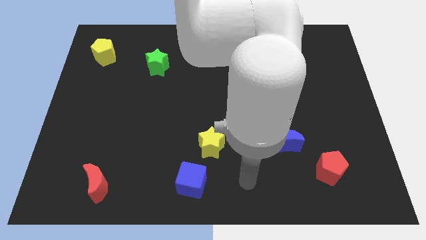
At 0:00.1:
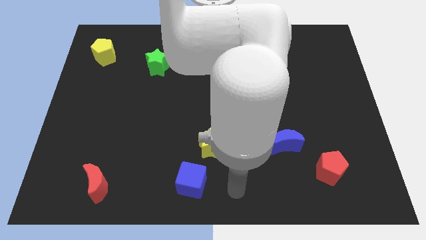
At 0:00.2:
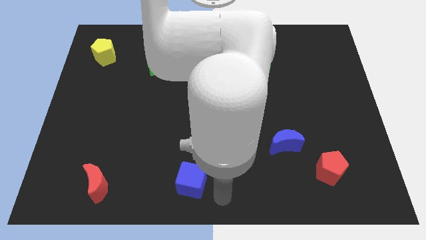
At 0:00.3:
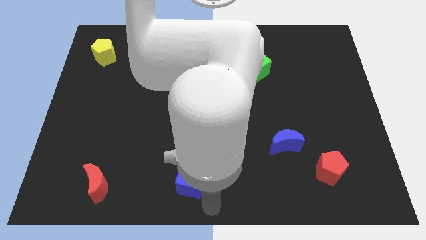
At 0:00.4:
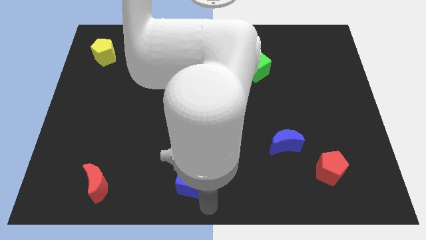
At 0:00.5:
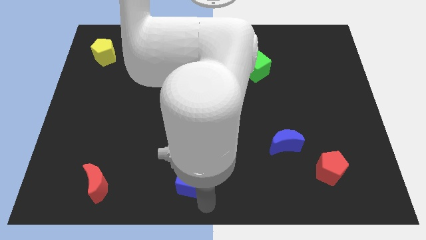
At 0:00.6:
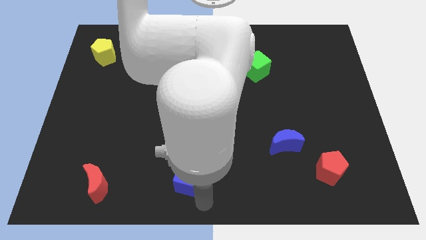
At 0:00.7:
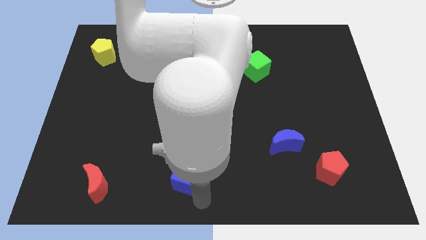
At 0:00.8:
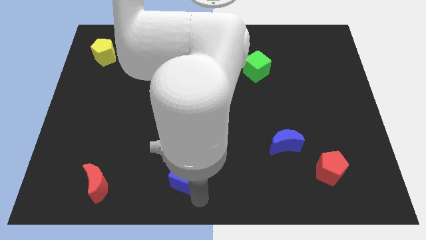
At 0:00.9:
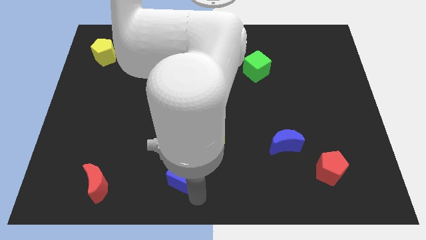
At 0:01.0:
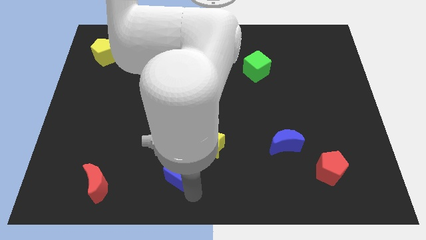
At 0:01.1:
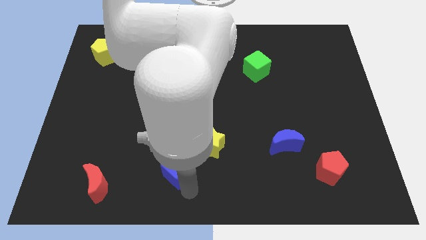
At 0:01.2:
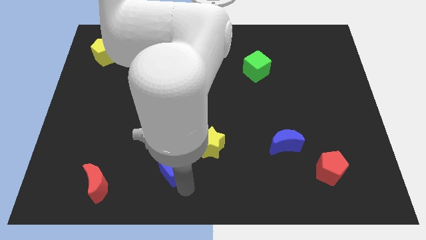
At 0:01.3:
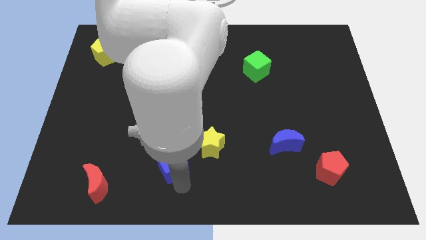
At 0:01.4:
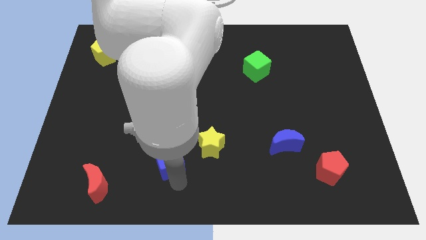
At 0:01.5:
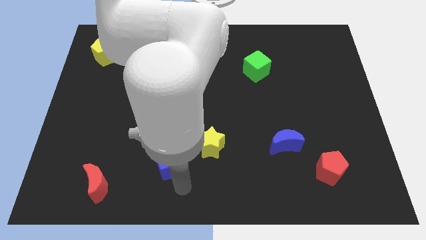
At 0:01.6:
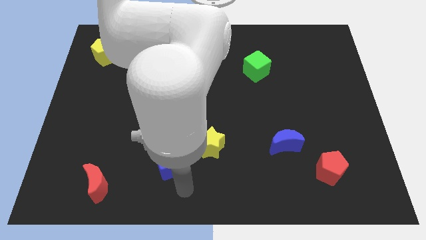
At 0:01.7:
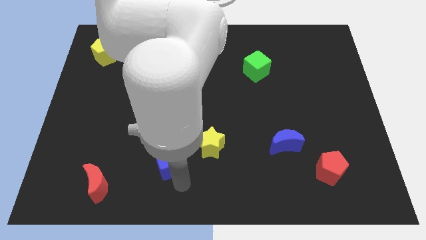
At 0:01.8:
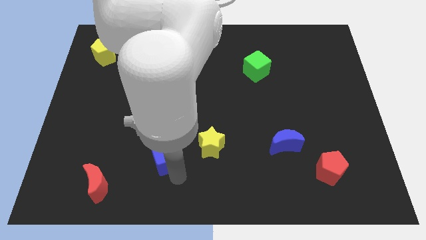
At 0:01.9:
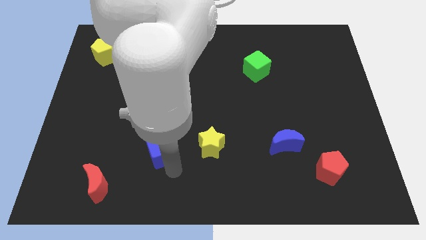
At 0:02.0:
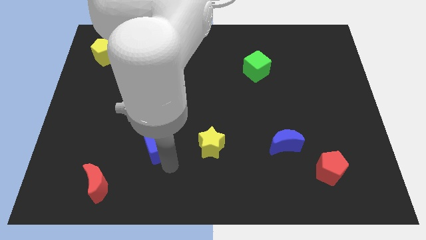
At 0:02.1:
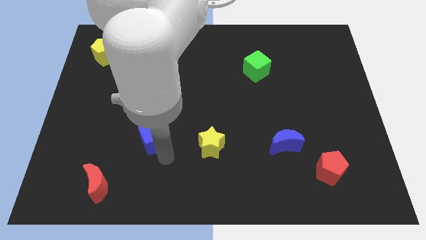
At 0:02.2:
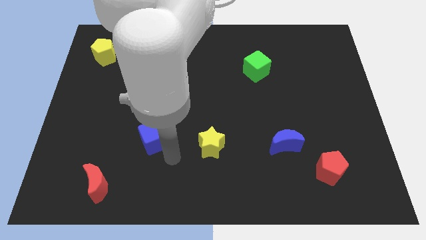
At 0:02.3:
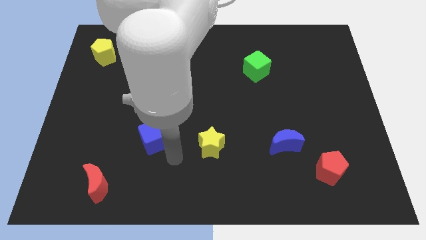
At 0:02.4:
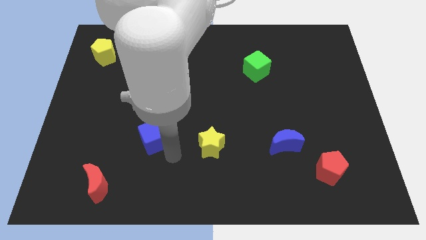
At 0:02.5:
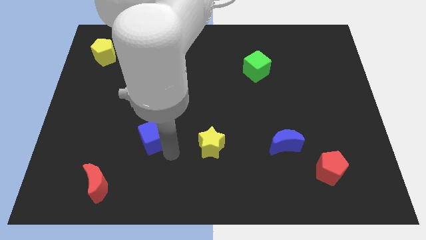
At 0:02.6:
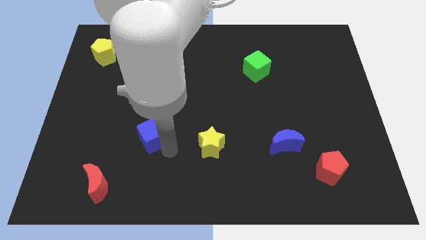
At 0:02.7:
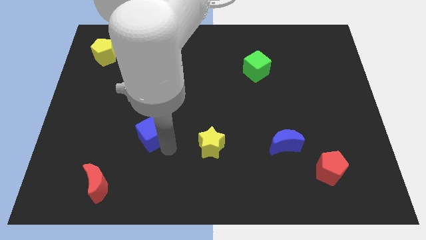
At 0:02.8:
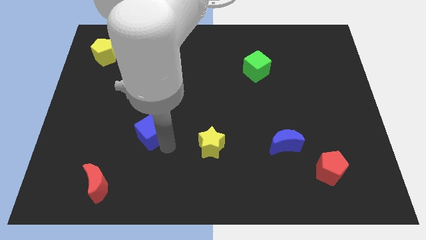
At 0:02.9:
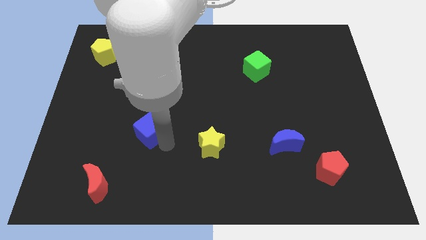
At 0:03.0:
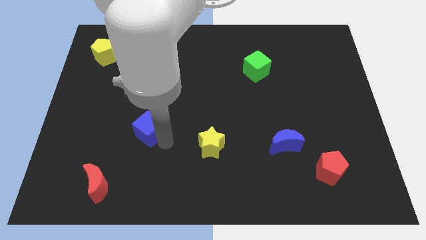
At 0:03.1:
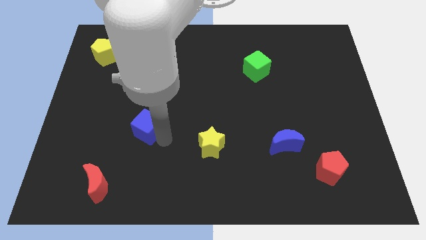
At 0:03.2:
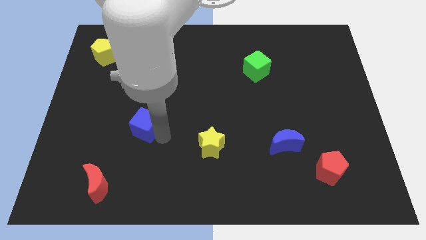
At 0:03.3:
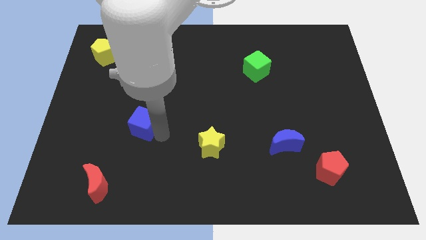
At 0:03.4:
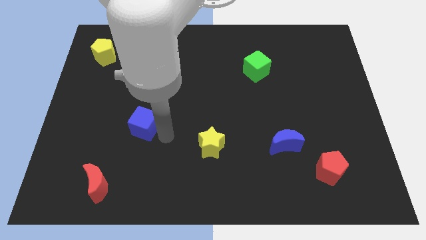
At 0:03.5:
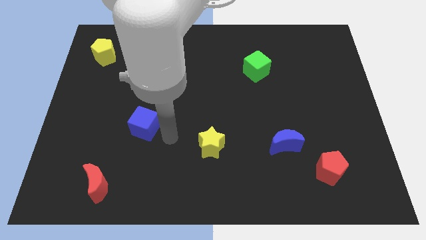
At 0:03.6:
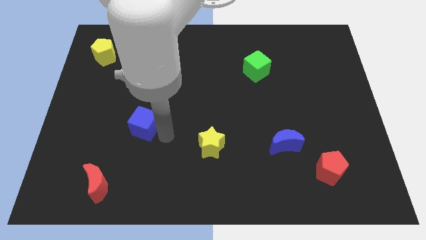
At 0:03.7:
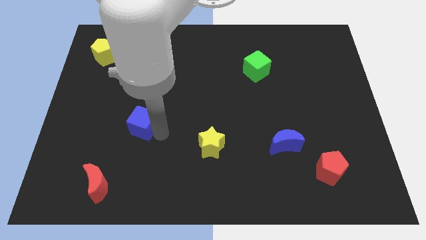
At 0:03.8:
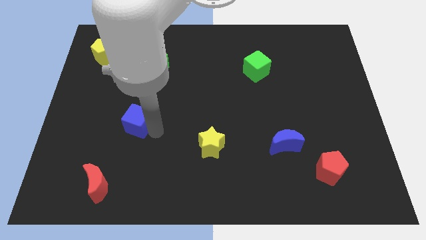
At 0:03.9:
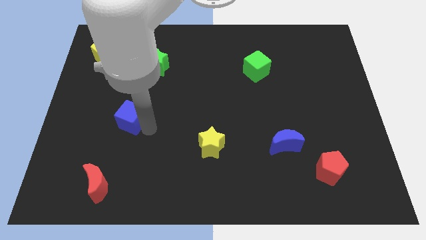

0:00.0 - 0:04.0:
push the blue cube up and left

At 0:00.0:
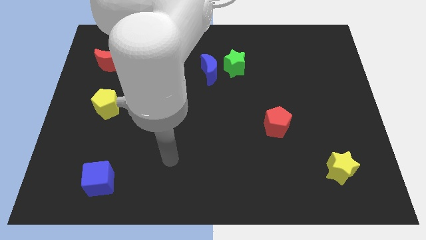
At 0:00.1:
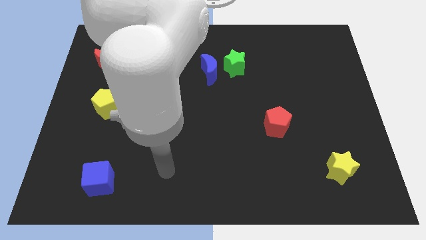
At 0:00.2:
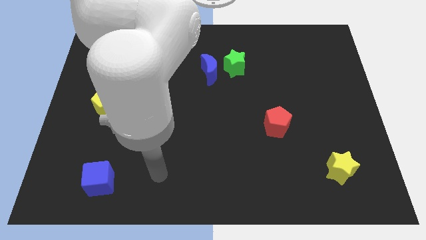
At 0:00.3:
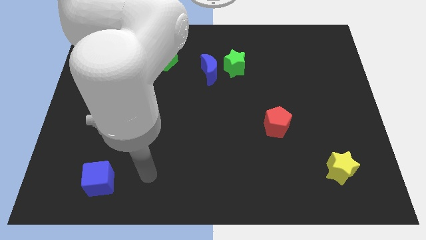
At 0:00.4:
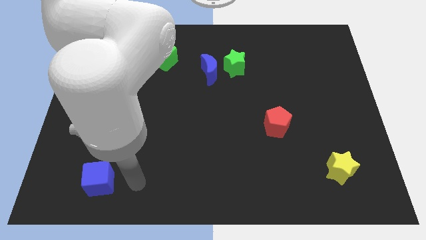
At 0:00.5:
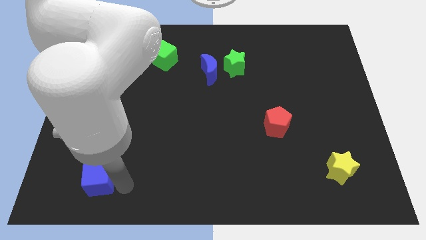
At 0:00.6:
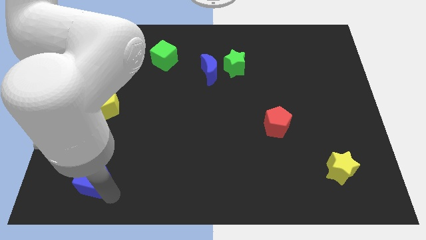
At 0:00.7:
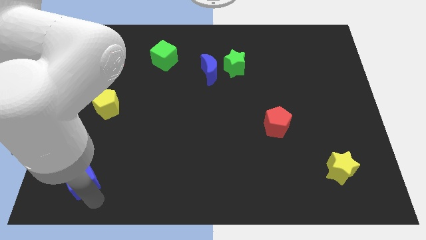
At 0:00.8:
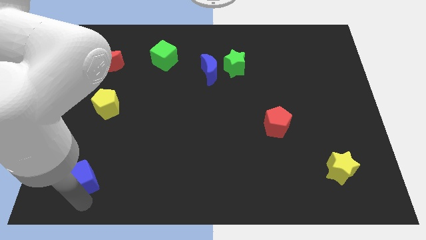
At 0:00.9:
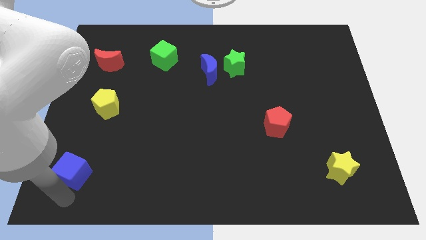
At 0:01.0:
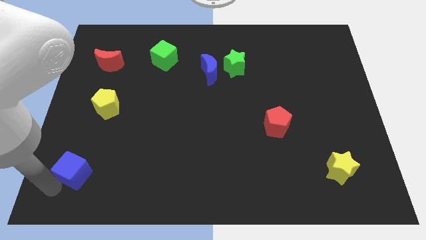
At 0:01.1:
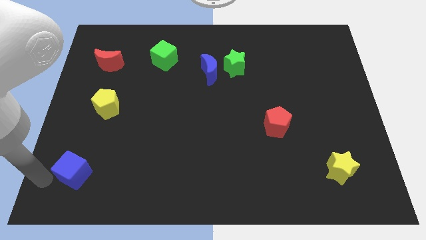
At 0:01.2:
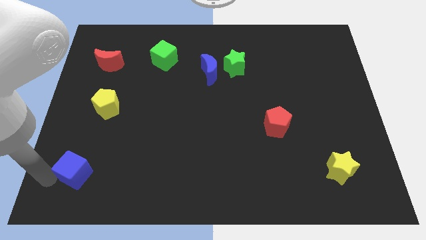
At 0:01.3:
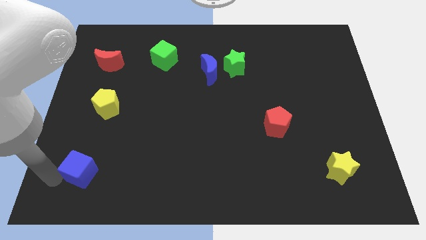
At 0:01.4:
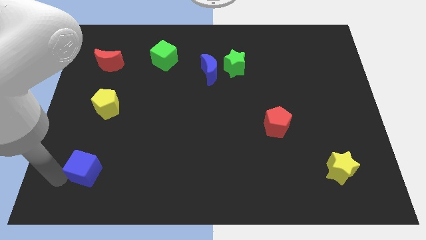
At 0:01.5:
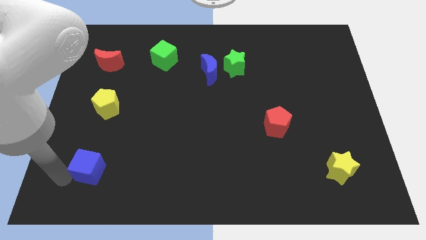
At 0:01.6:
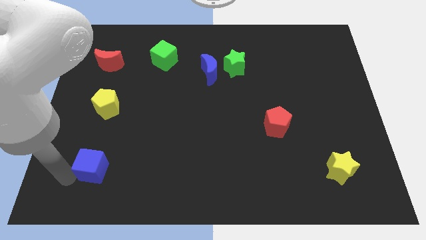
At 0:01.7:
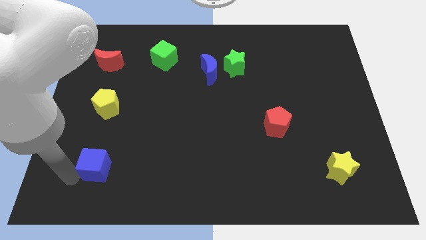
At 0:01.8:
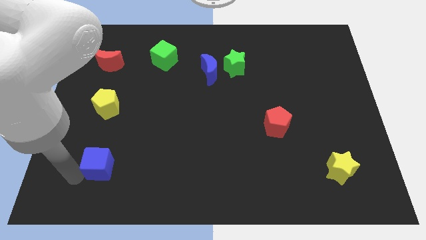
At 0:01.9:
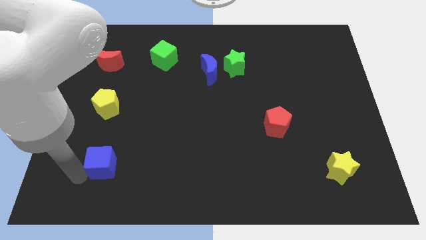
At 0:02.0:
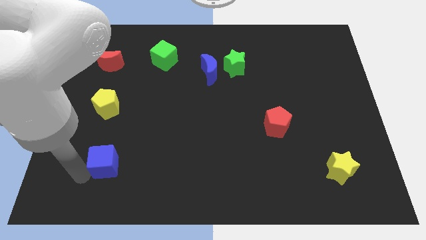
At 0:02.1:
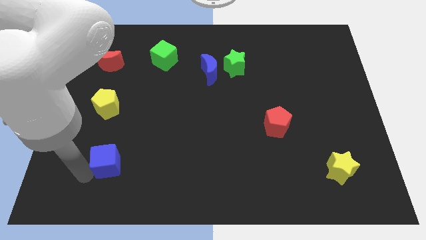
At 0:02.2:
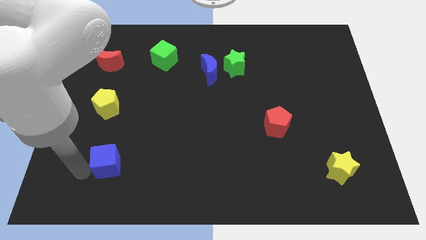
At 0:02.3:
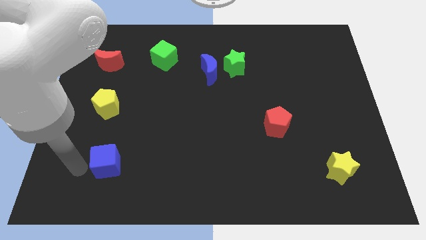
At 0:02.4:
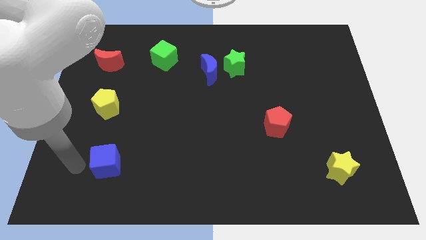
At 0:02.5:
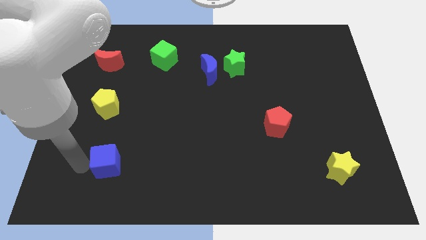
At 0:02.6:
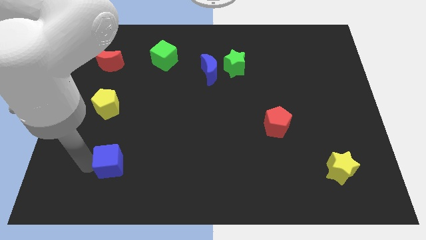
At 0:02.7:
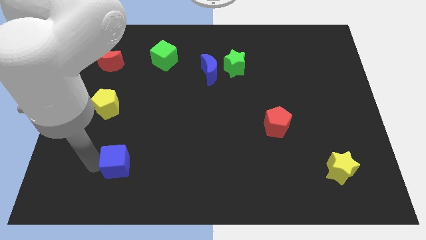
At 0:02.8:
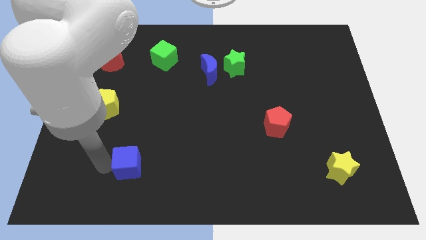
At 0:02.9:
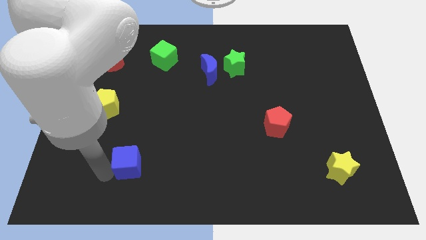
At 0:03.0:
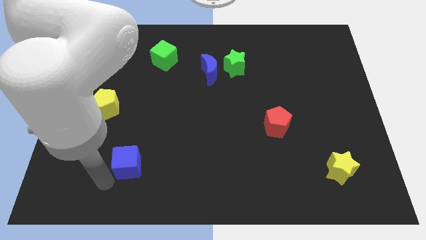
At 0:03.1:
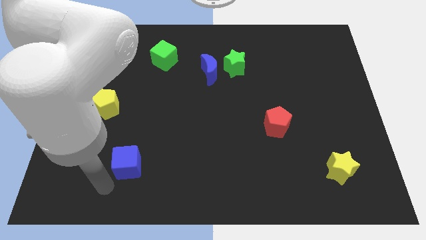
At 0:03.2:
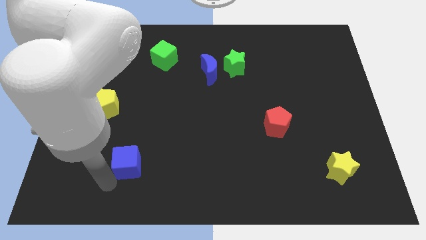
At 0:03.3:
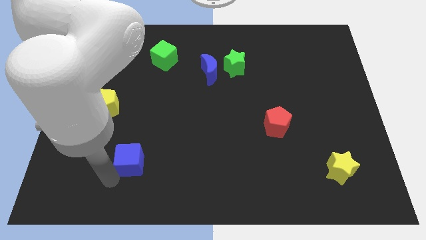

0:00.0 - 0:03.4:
move the blue cube a little bit upwards and right diagonally

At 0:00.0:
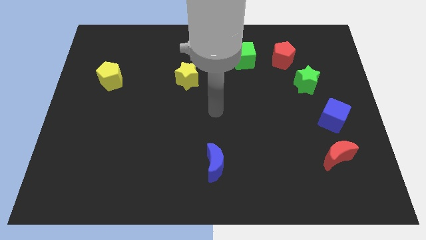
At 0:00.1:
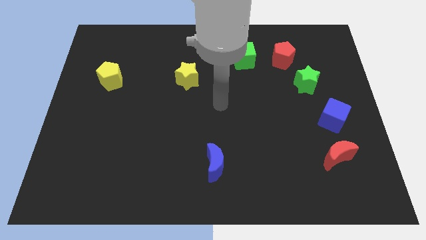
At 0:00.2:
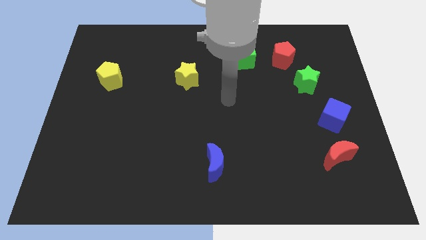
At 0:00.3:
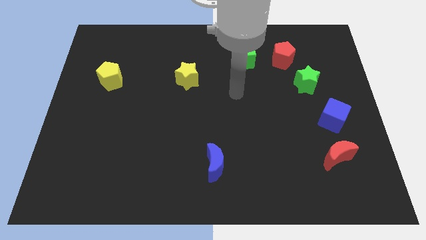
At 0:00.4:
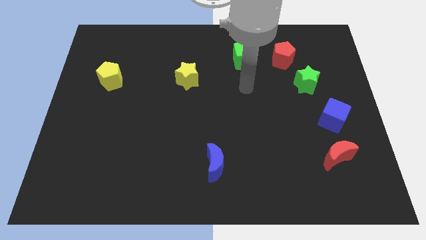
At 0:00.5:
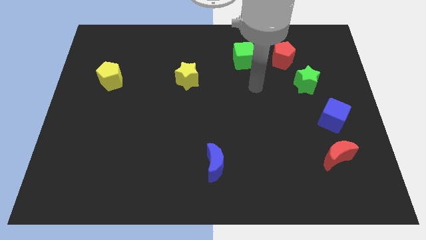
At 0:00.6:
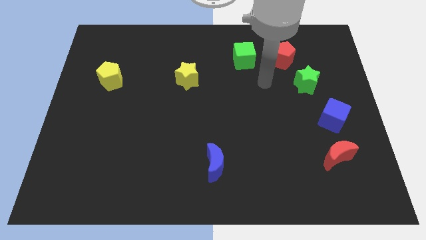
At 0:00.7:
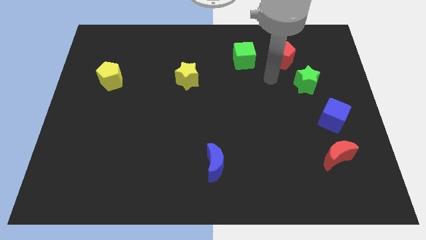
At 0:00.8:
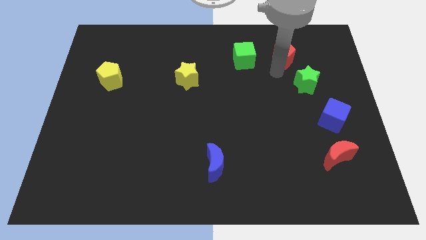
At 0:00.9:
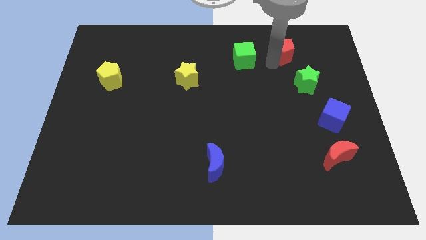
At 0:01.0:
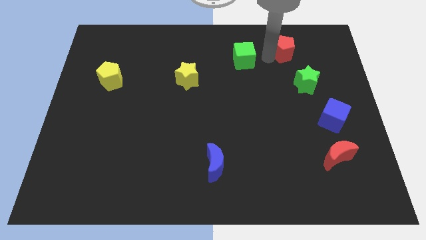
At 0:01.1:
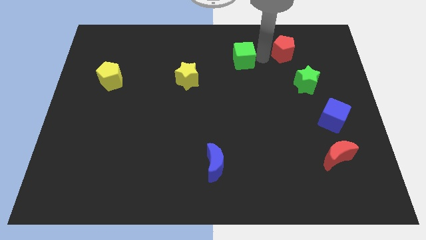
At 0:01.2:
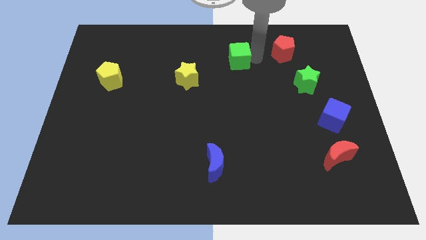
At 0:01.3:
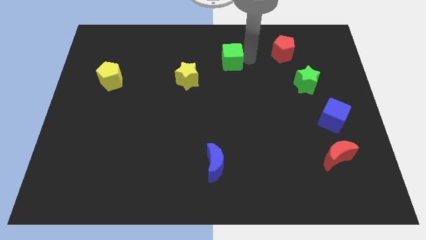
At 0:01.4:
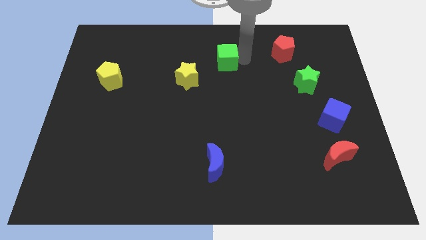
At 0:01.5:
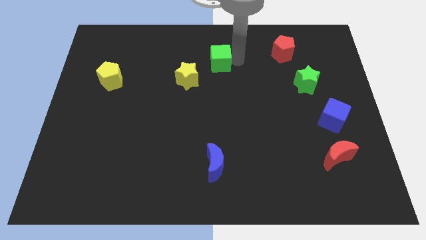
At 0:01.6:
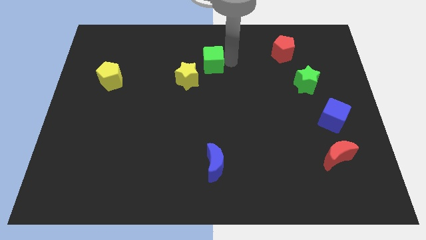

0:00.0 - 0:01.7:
slide the green cube a bit left
